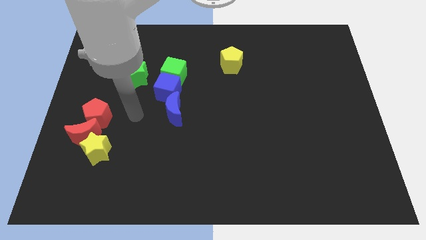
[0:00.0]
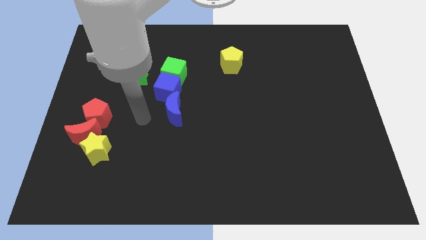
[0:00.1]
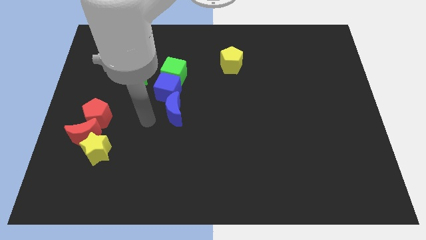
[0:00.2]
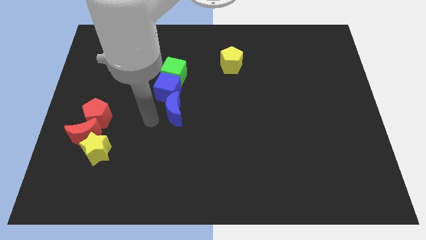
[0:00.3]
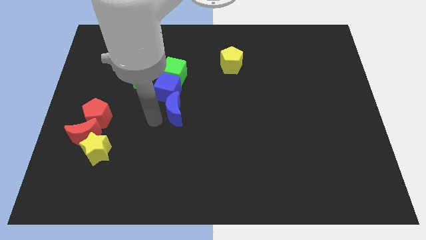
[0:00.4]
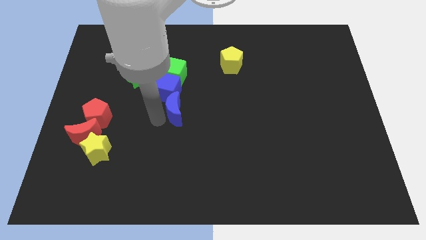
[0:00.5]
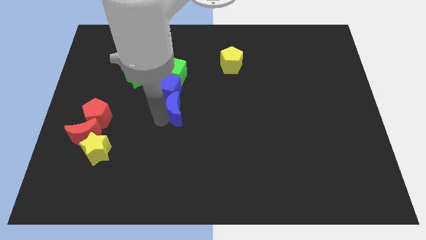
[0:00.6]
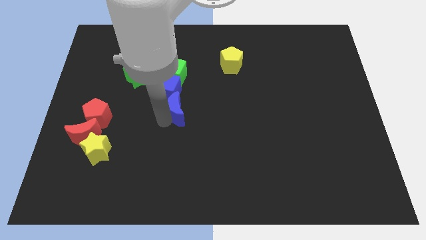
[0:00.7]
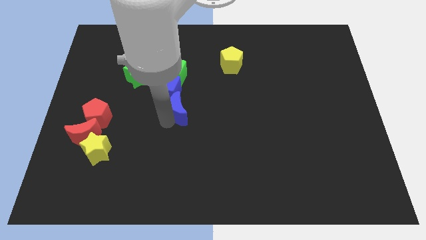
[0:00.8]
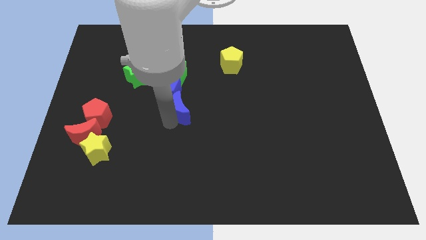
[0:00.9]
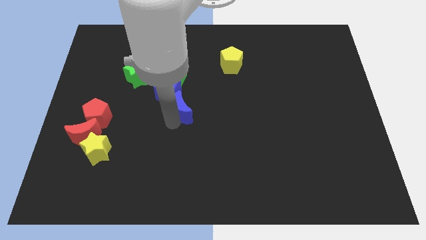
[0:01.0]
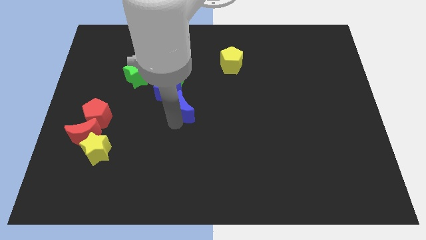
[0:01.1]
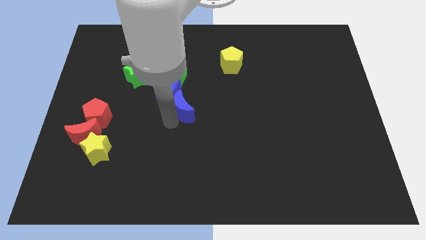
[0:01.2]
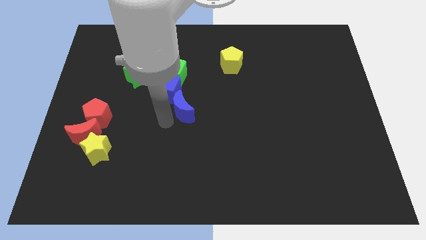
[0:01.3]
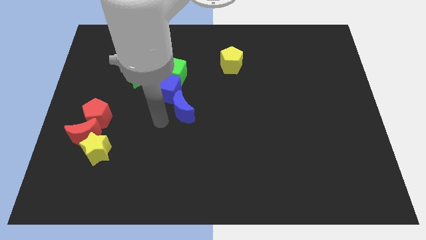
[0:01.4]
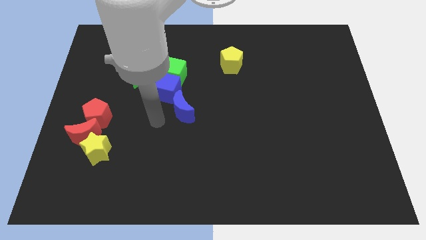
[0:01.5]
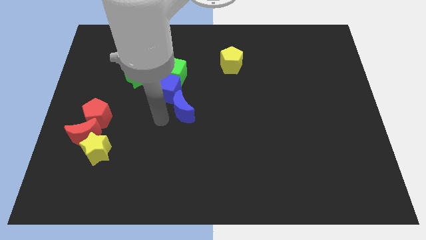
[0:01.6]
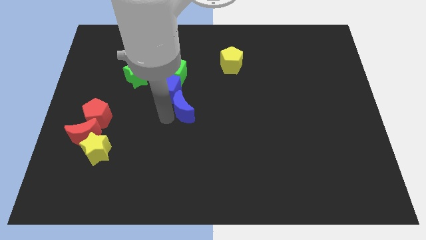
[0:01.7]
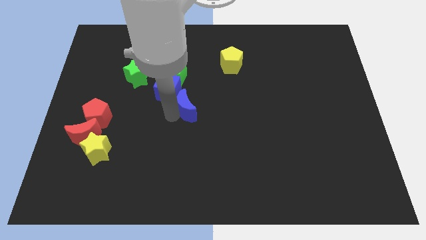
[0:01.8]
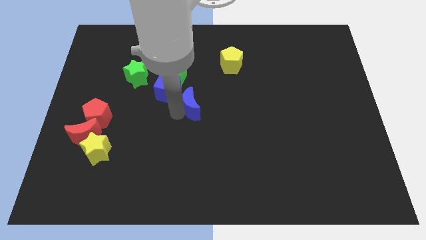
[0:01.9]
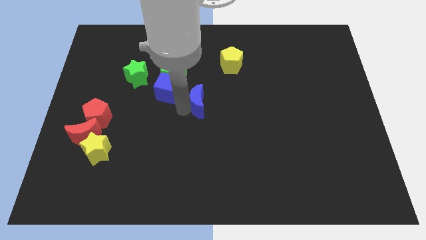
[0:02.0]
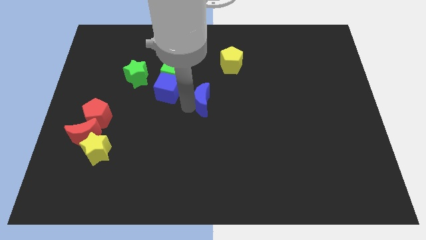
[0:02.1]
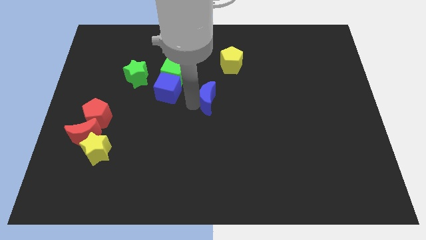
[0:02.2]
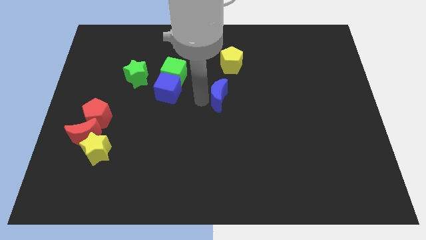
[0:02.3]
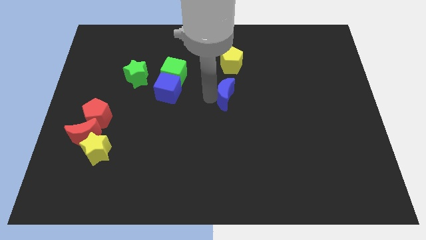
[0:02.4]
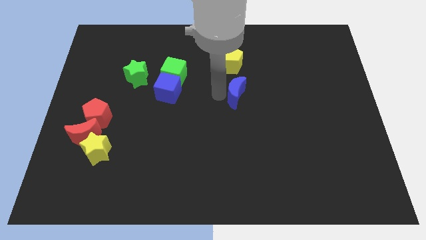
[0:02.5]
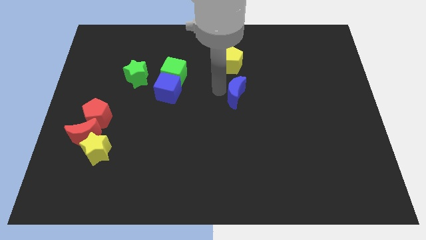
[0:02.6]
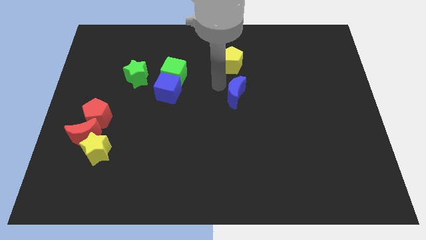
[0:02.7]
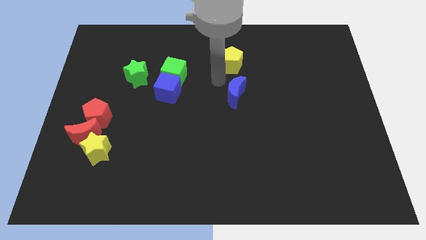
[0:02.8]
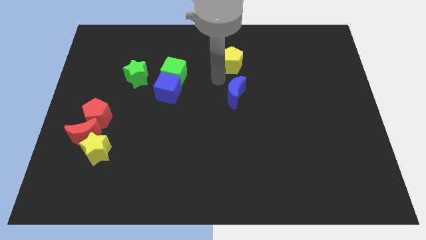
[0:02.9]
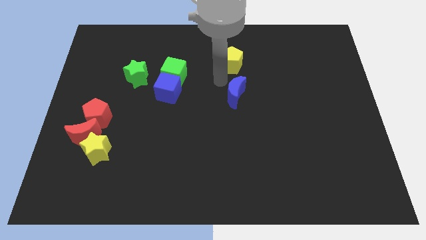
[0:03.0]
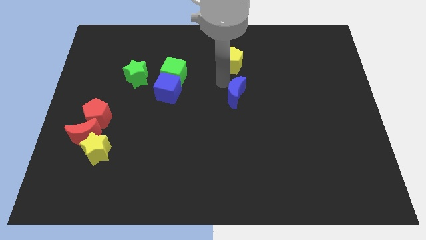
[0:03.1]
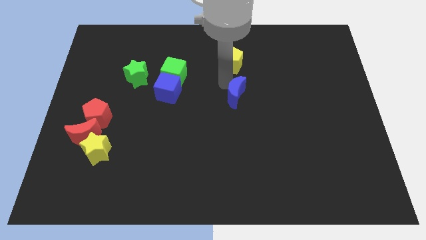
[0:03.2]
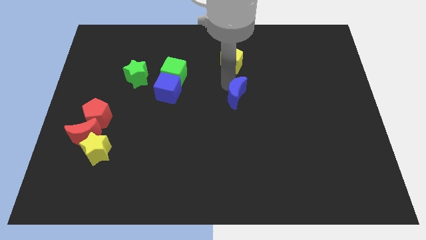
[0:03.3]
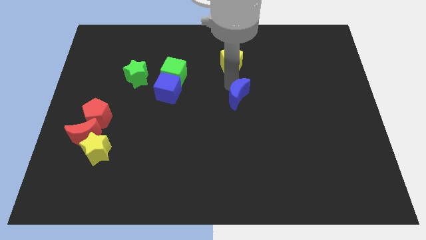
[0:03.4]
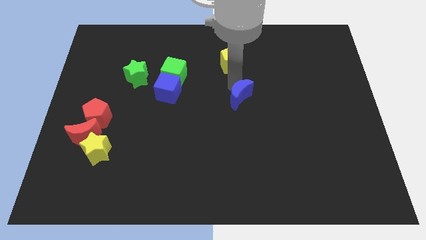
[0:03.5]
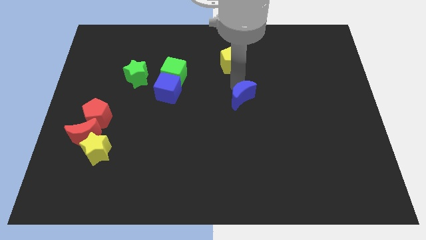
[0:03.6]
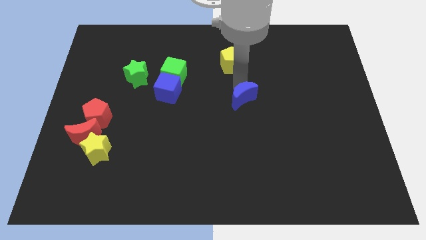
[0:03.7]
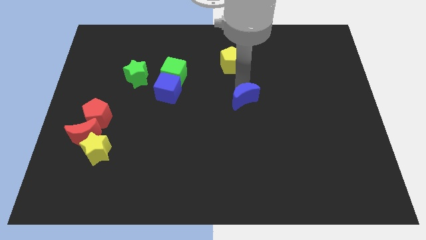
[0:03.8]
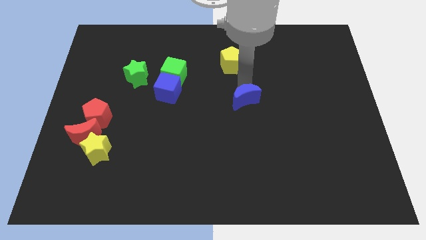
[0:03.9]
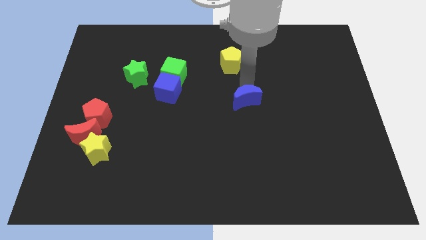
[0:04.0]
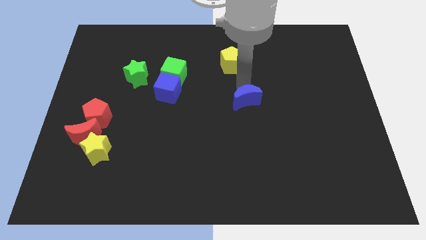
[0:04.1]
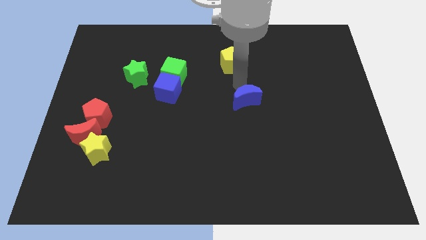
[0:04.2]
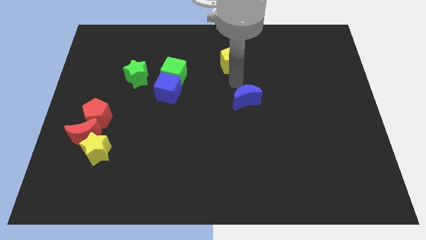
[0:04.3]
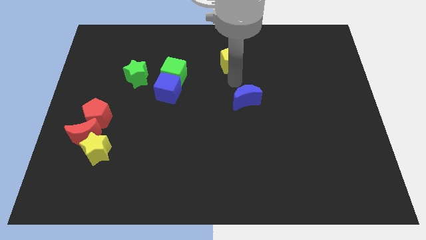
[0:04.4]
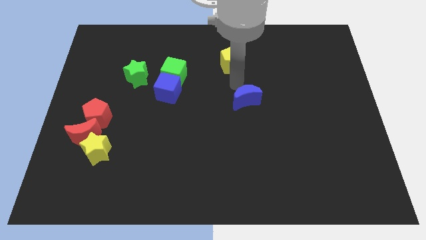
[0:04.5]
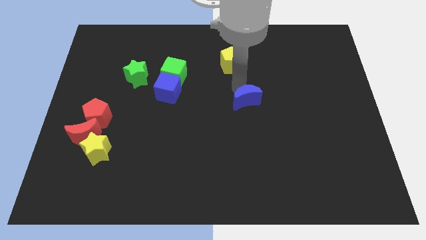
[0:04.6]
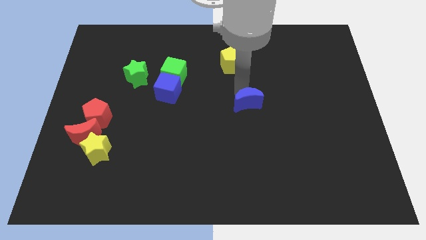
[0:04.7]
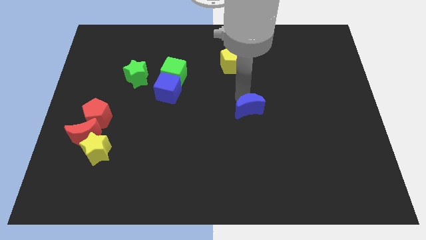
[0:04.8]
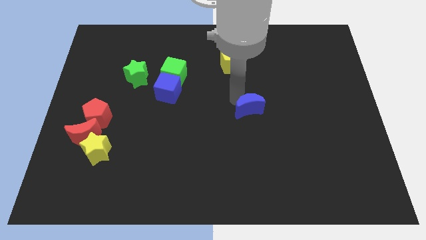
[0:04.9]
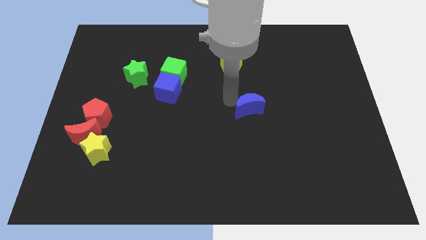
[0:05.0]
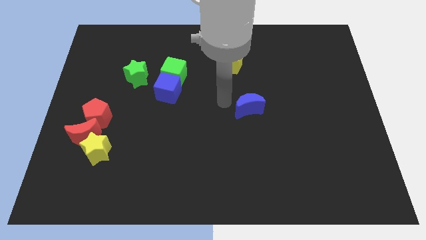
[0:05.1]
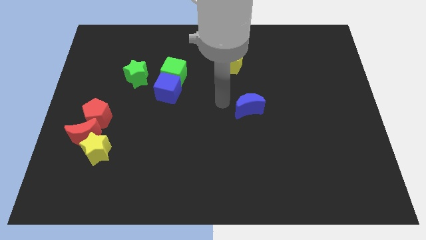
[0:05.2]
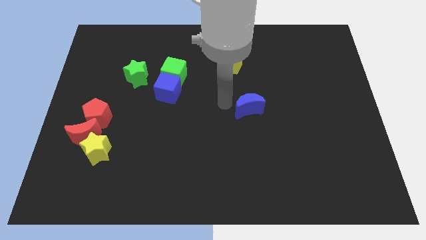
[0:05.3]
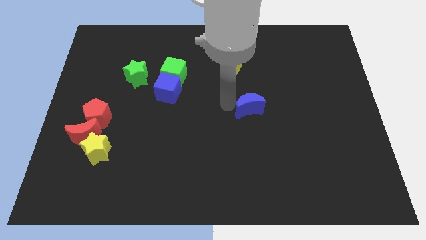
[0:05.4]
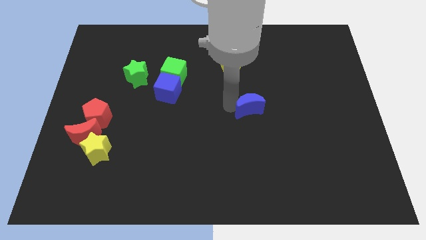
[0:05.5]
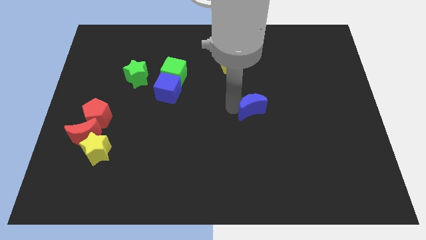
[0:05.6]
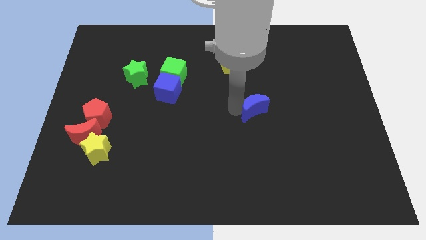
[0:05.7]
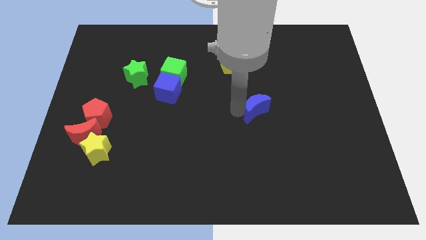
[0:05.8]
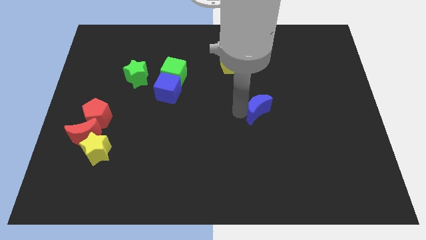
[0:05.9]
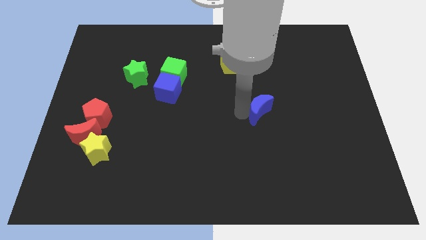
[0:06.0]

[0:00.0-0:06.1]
slide the blue moon to the right

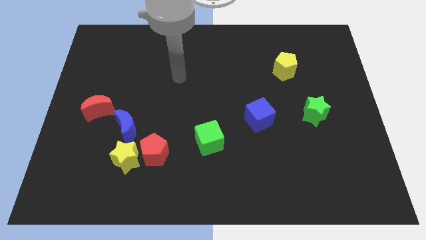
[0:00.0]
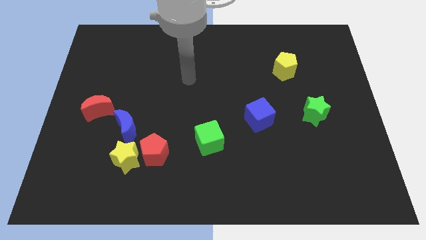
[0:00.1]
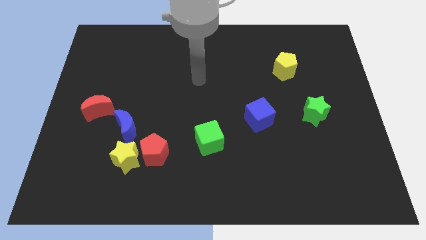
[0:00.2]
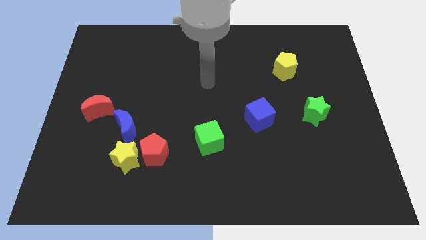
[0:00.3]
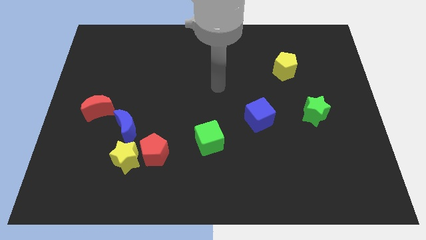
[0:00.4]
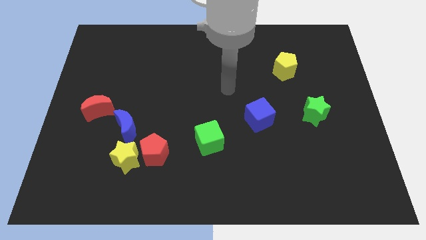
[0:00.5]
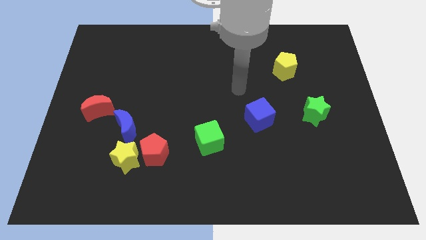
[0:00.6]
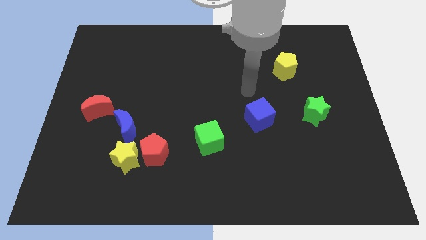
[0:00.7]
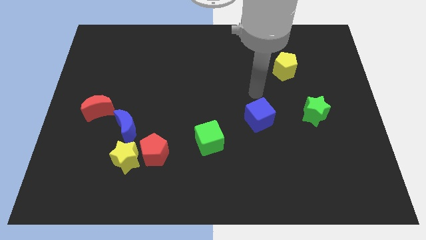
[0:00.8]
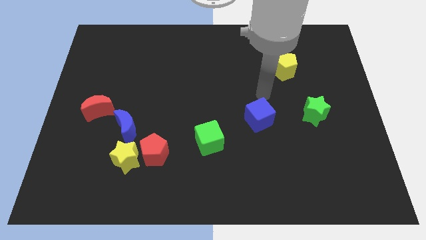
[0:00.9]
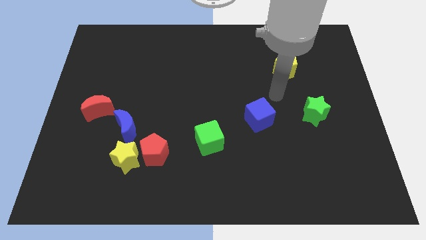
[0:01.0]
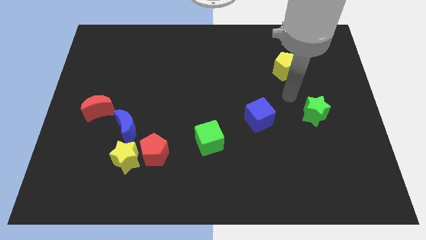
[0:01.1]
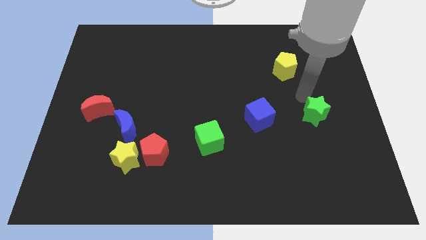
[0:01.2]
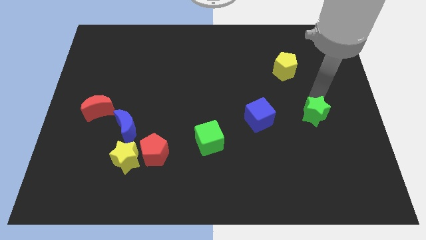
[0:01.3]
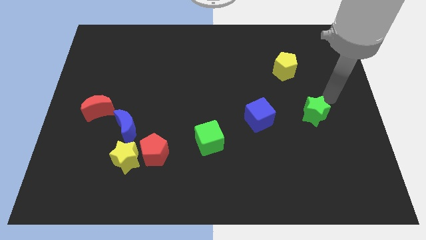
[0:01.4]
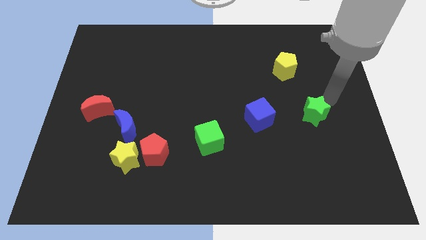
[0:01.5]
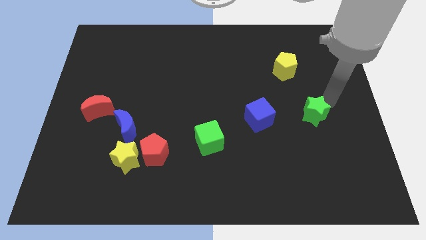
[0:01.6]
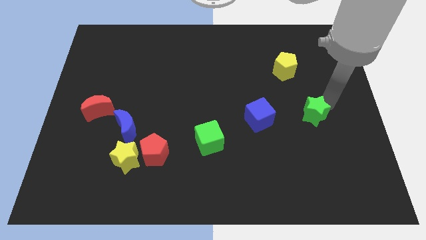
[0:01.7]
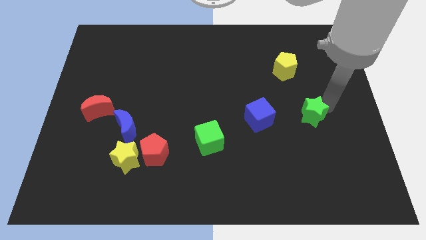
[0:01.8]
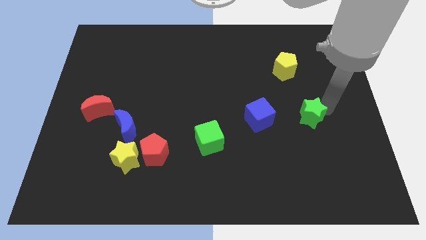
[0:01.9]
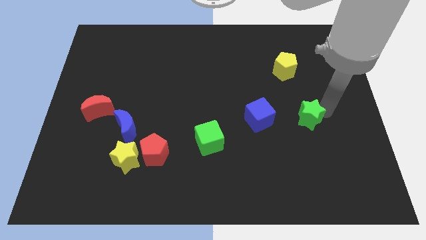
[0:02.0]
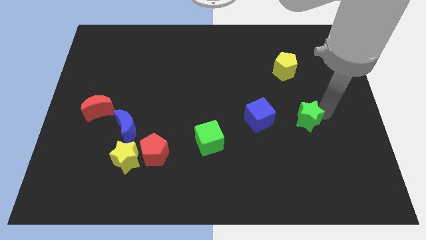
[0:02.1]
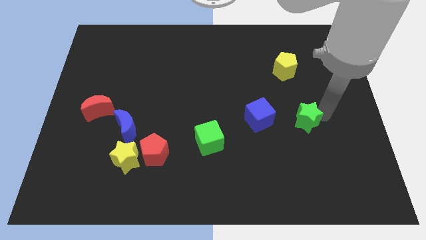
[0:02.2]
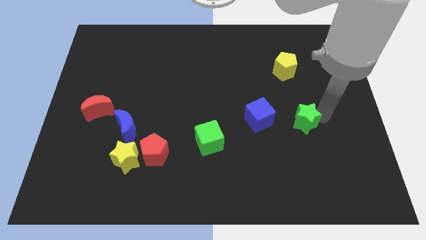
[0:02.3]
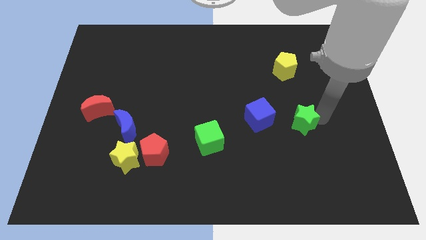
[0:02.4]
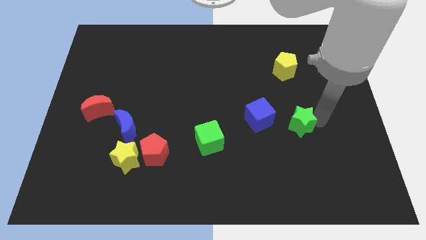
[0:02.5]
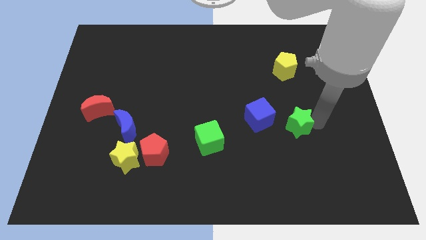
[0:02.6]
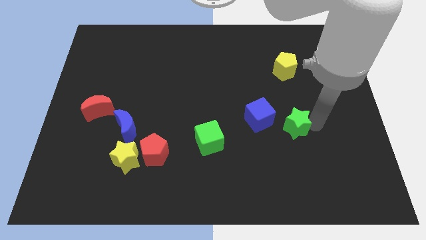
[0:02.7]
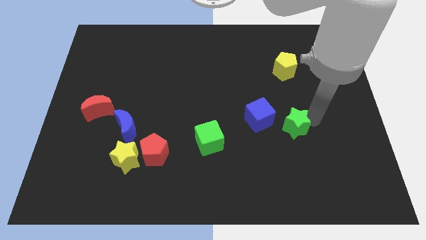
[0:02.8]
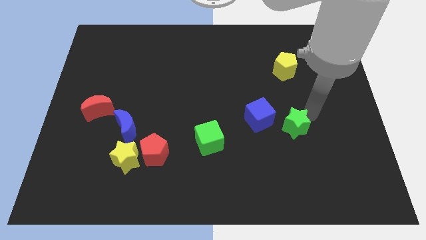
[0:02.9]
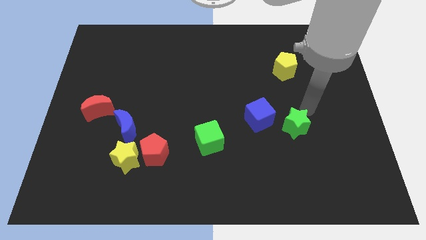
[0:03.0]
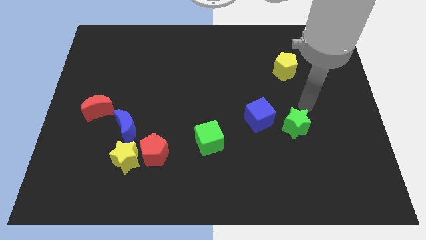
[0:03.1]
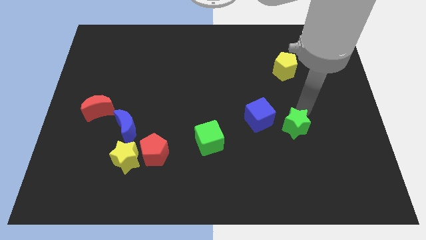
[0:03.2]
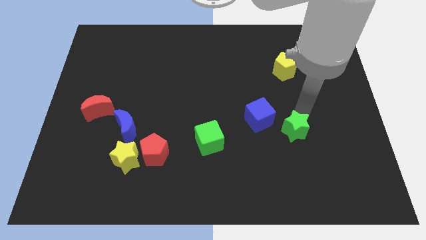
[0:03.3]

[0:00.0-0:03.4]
slide the green star a little bit diagonally down and to the left
